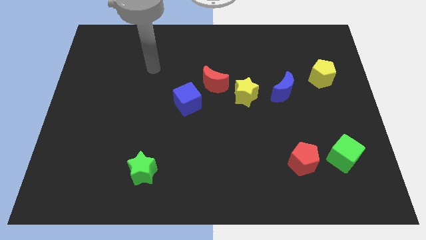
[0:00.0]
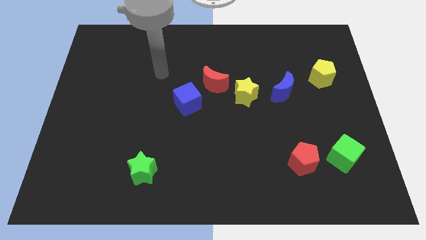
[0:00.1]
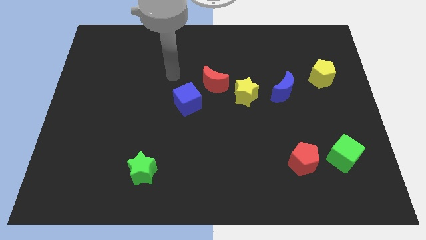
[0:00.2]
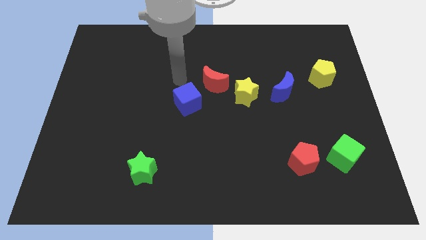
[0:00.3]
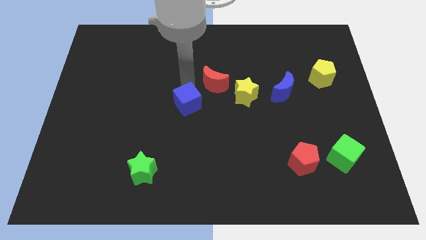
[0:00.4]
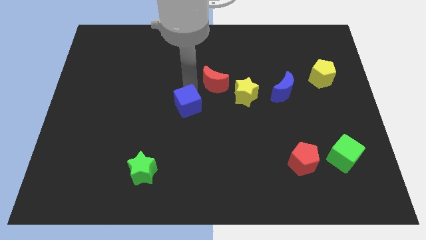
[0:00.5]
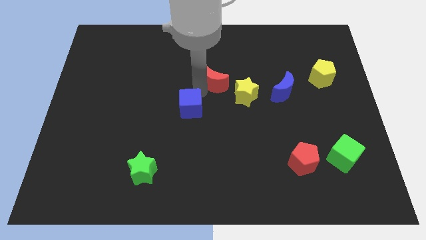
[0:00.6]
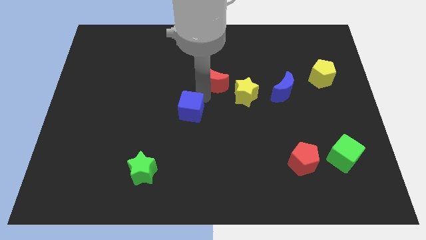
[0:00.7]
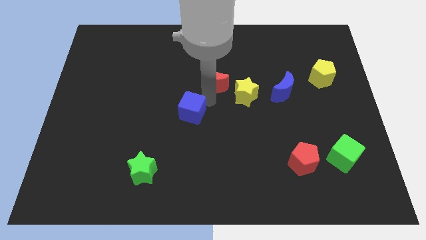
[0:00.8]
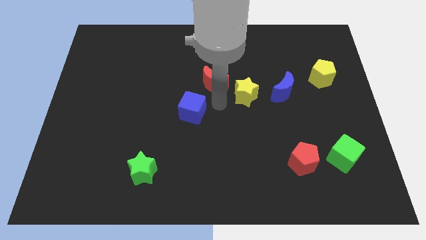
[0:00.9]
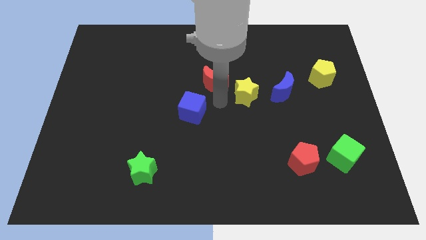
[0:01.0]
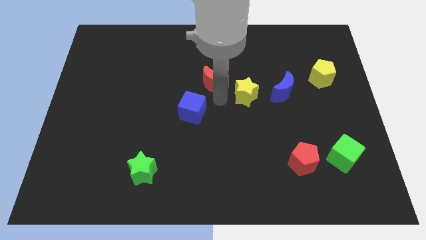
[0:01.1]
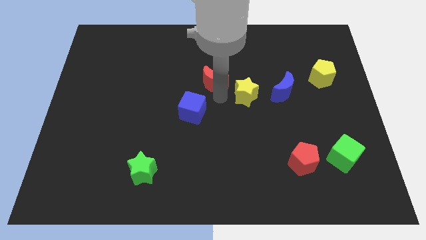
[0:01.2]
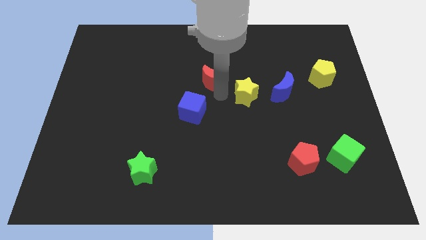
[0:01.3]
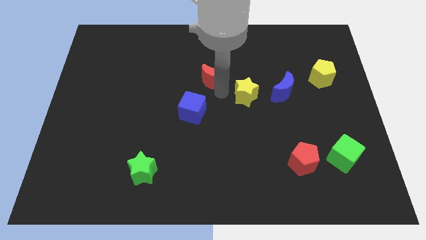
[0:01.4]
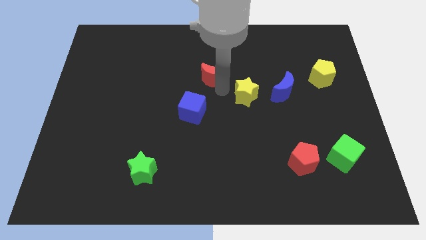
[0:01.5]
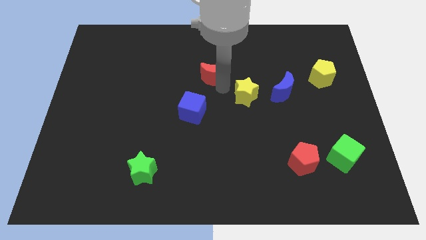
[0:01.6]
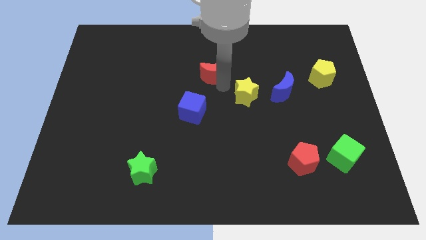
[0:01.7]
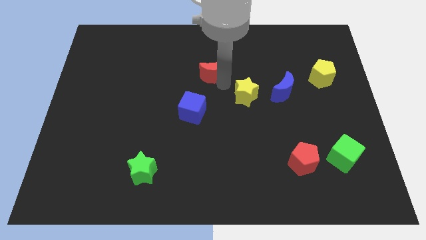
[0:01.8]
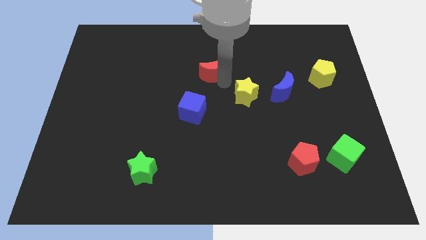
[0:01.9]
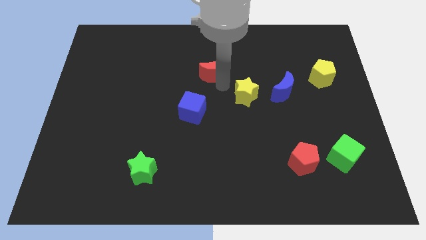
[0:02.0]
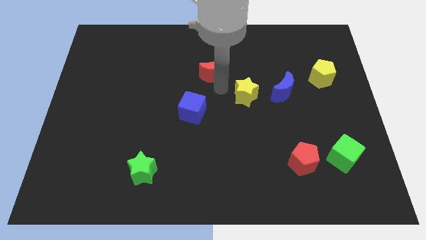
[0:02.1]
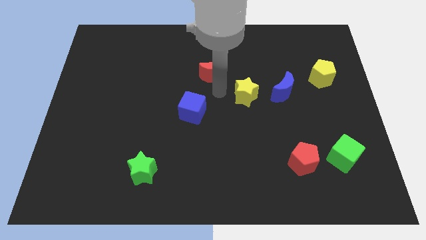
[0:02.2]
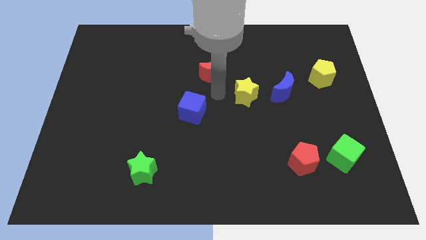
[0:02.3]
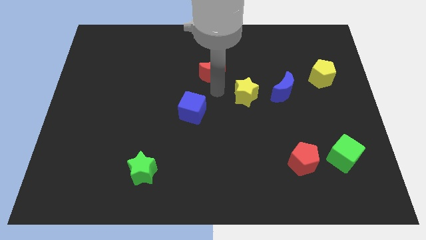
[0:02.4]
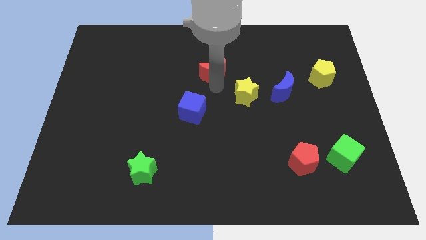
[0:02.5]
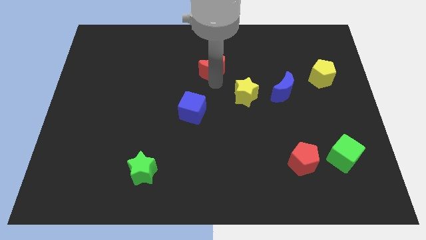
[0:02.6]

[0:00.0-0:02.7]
separate the red moon from the yellow star and blue cube

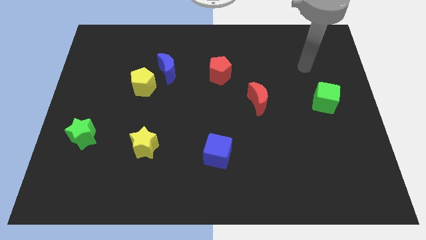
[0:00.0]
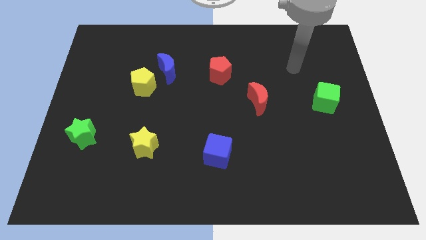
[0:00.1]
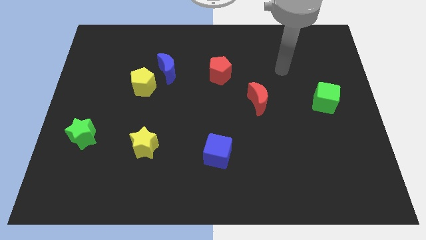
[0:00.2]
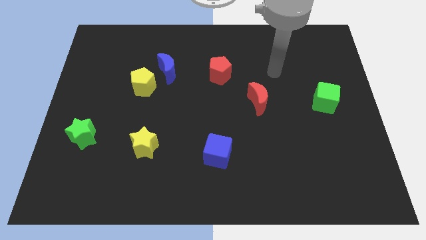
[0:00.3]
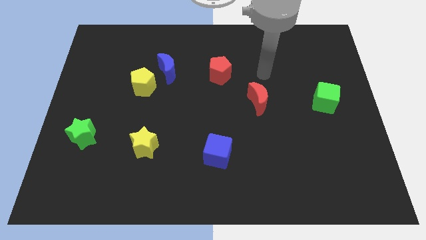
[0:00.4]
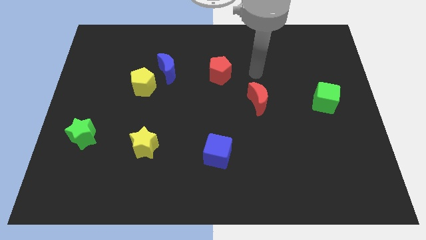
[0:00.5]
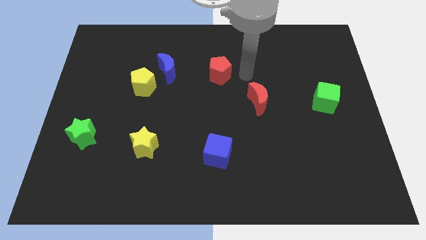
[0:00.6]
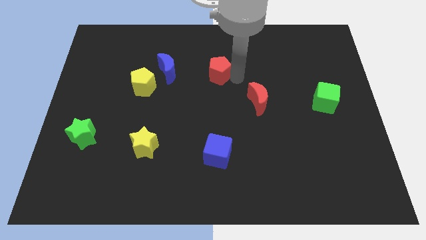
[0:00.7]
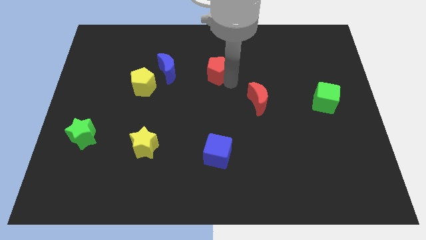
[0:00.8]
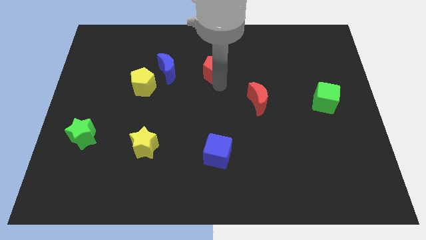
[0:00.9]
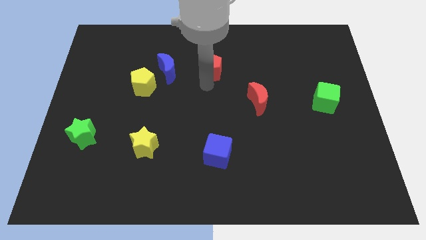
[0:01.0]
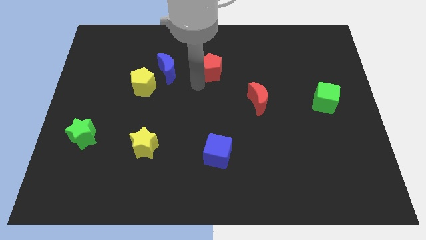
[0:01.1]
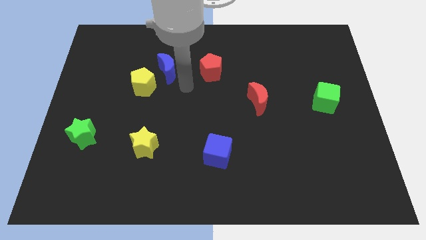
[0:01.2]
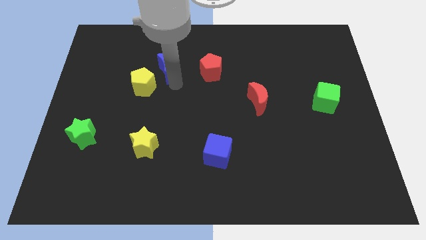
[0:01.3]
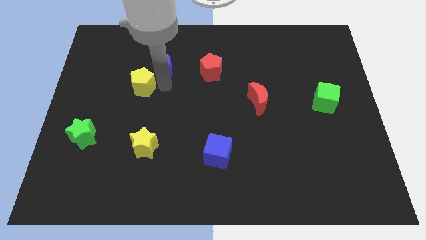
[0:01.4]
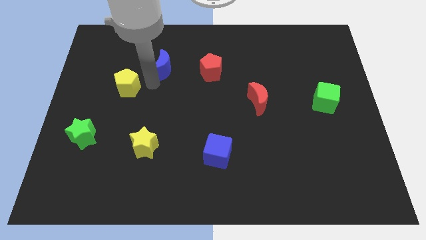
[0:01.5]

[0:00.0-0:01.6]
pull the blue moon apart from the yellow pentagon

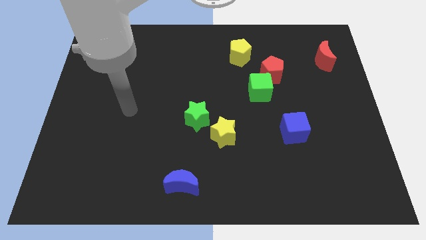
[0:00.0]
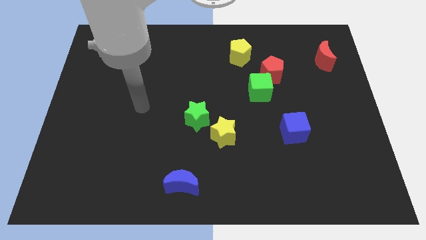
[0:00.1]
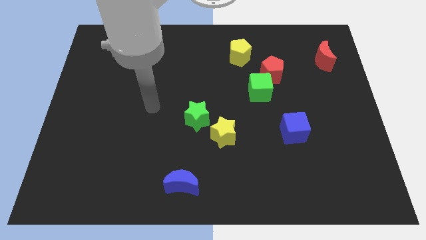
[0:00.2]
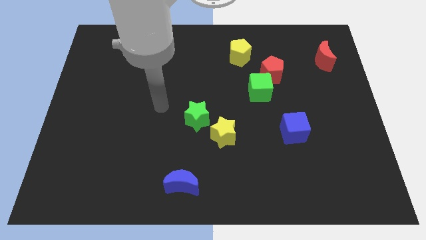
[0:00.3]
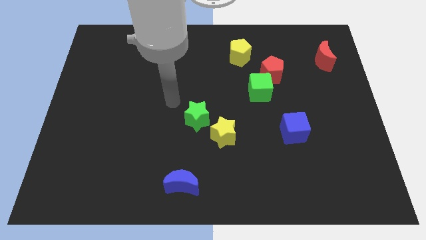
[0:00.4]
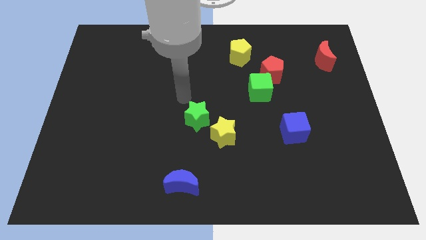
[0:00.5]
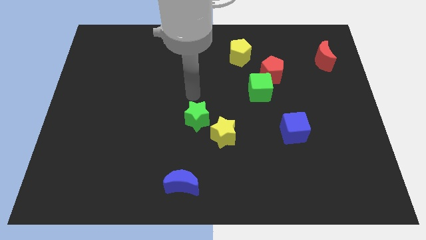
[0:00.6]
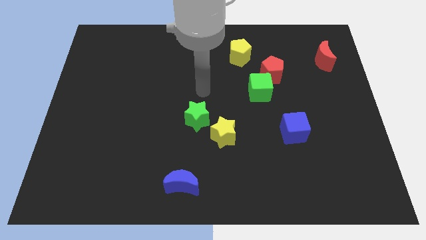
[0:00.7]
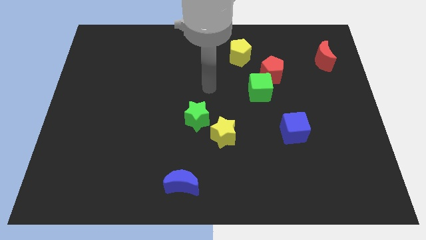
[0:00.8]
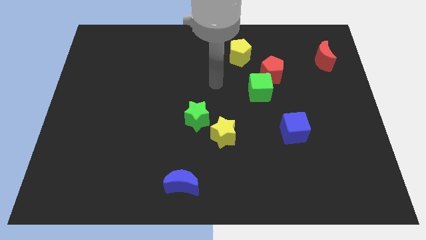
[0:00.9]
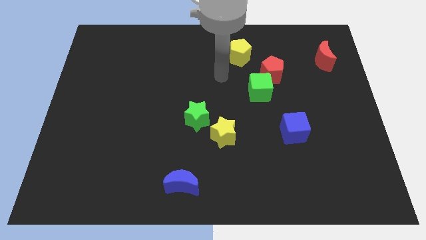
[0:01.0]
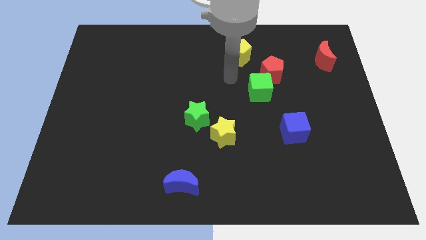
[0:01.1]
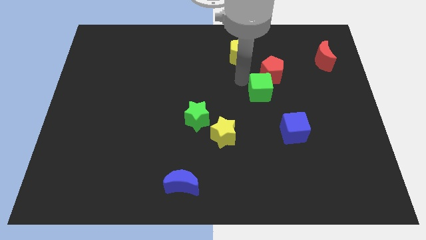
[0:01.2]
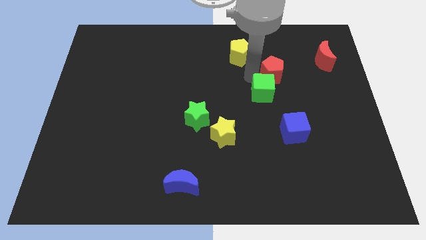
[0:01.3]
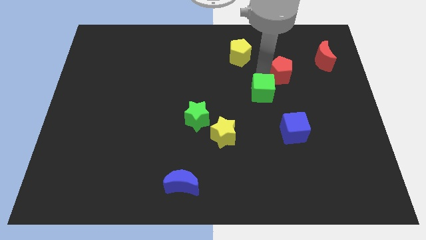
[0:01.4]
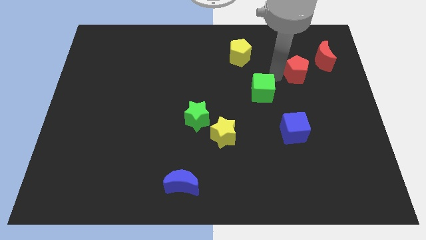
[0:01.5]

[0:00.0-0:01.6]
pull the green cube apart from the red pentagon

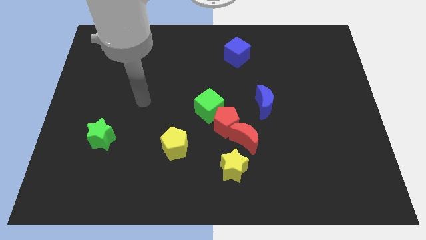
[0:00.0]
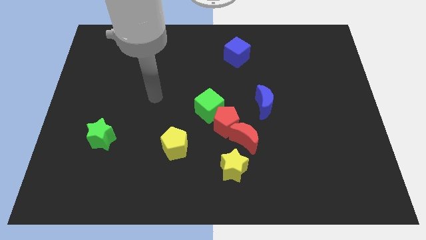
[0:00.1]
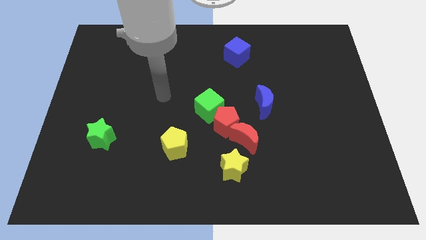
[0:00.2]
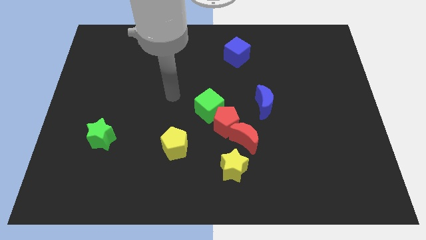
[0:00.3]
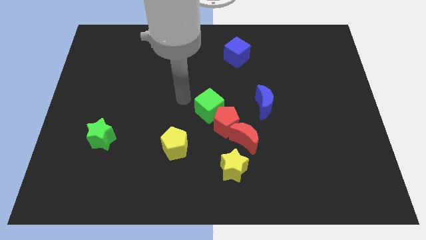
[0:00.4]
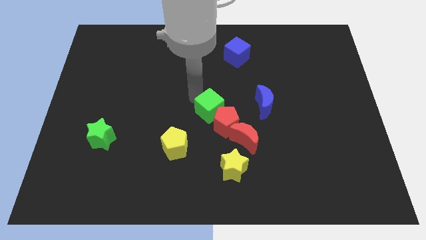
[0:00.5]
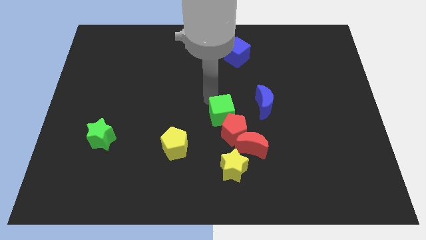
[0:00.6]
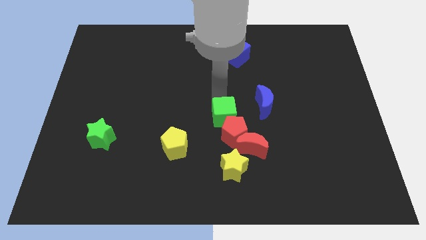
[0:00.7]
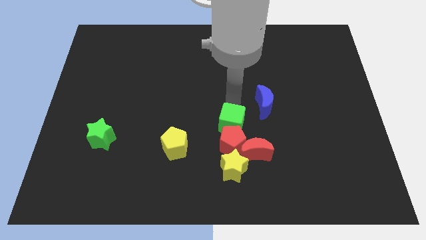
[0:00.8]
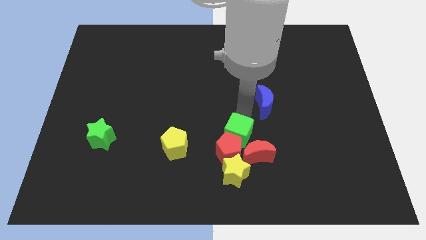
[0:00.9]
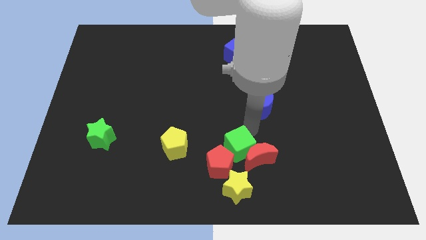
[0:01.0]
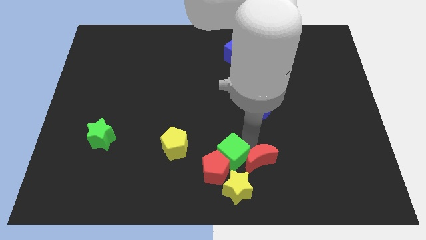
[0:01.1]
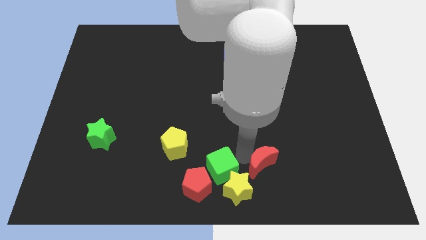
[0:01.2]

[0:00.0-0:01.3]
move the red pentagon away from the red moon and green cube

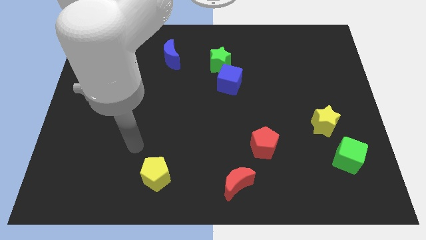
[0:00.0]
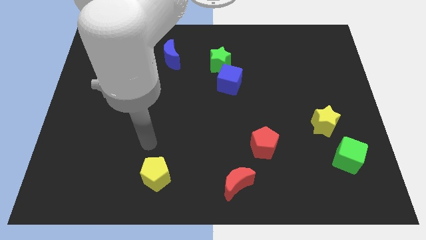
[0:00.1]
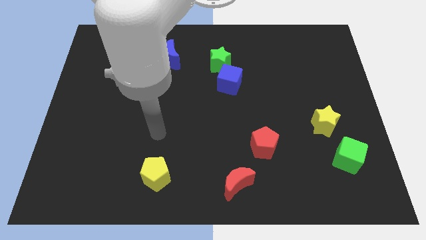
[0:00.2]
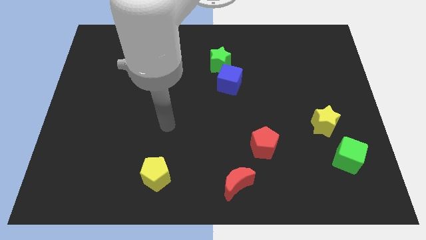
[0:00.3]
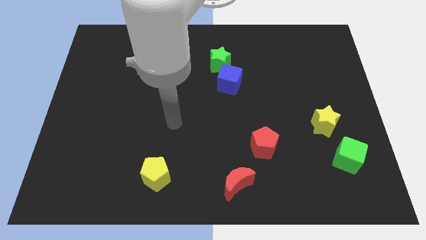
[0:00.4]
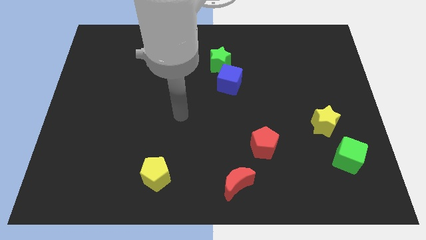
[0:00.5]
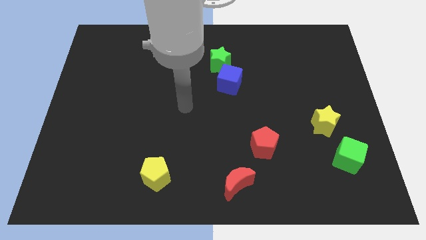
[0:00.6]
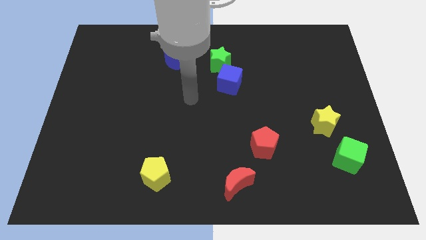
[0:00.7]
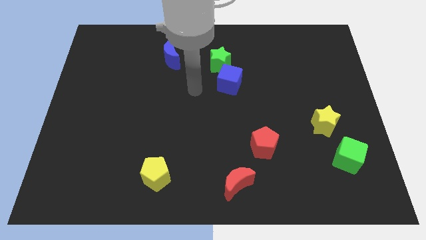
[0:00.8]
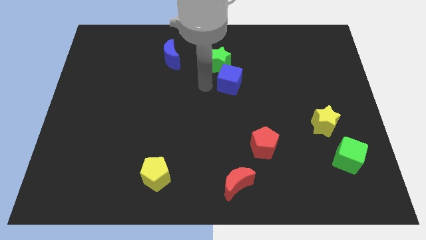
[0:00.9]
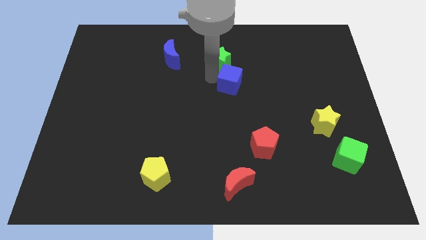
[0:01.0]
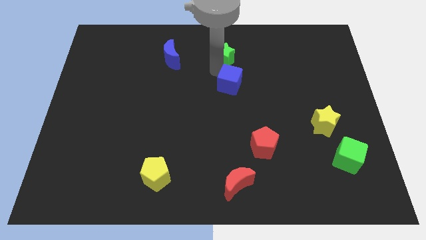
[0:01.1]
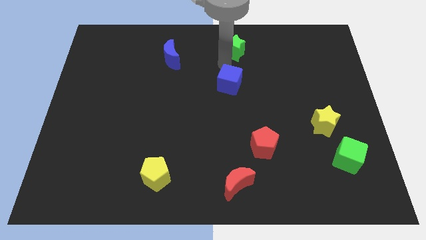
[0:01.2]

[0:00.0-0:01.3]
separate the blue cube from the green star

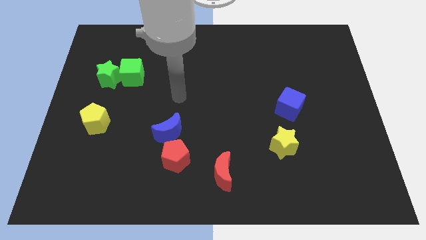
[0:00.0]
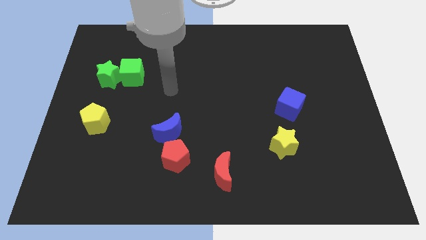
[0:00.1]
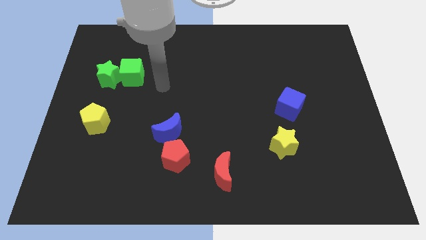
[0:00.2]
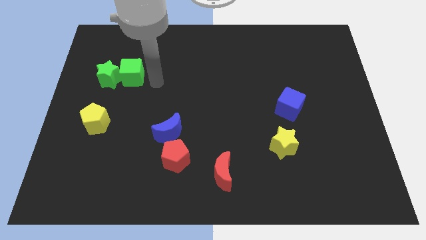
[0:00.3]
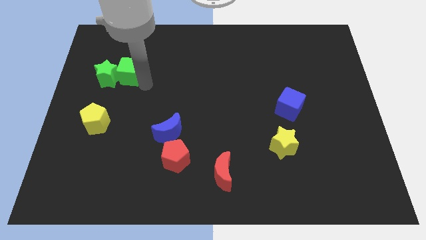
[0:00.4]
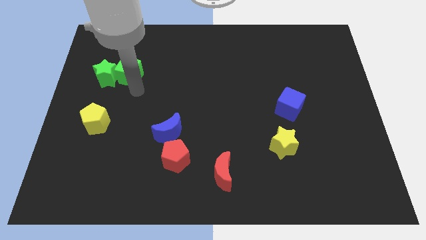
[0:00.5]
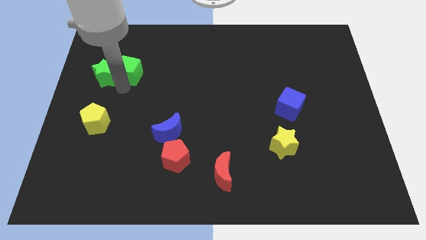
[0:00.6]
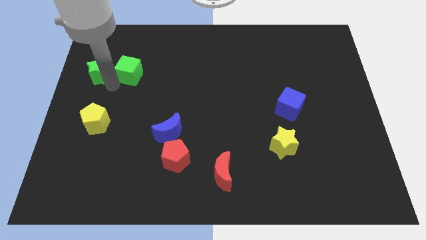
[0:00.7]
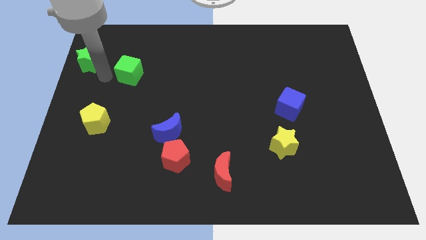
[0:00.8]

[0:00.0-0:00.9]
separate the green cube from the green star
